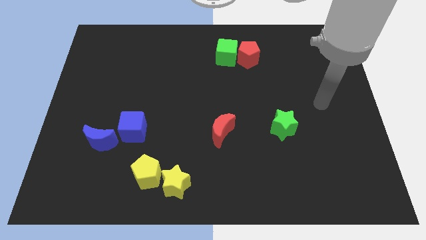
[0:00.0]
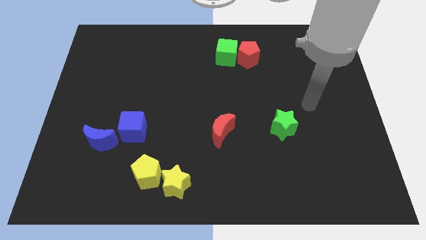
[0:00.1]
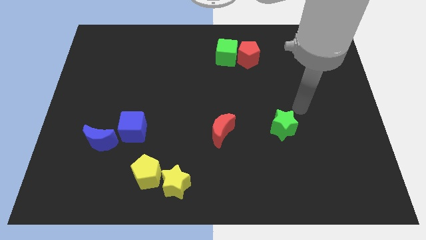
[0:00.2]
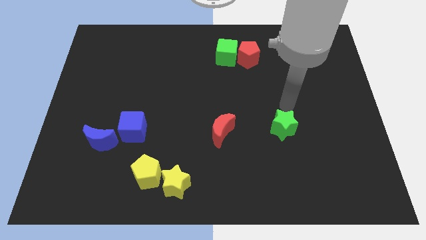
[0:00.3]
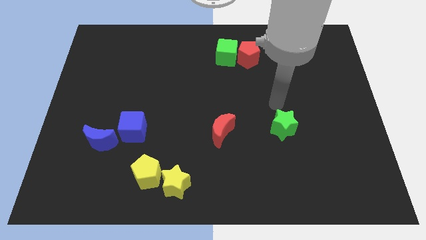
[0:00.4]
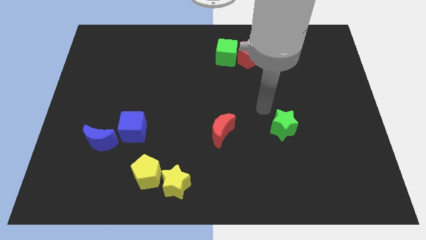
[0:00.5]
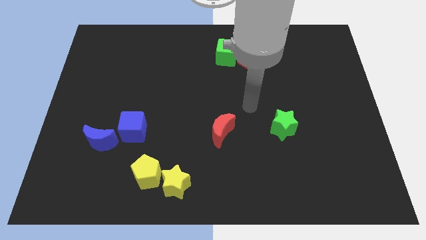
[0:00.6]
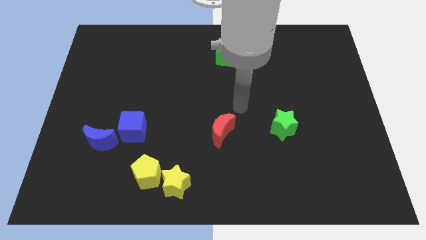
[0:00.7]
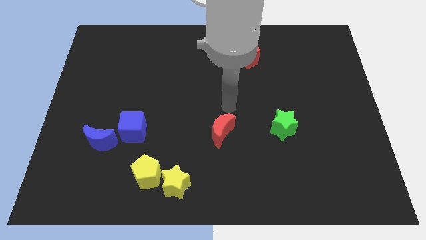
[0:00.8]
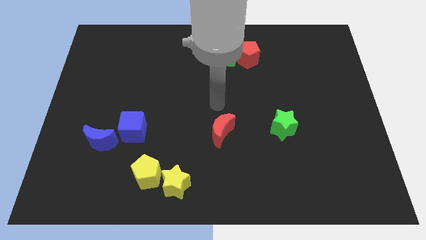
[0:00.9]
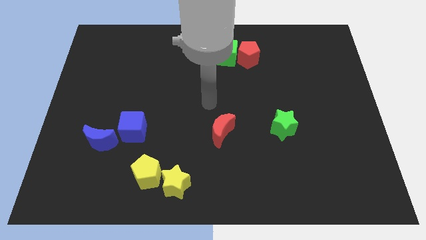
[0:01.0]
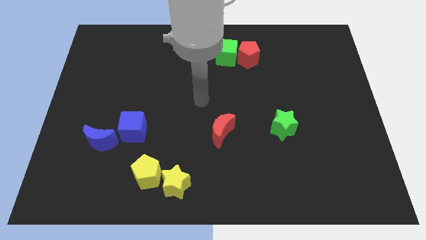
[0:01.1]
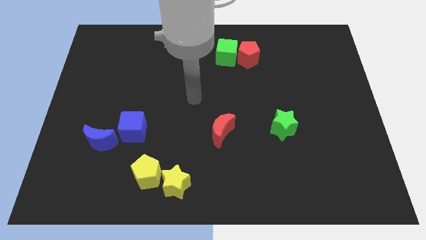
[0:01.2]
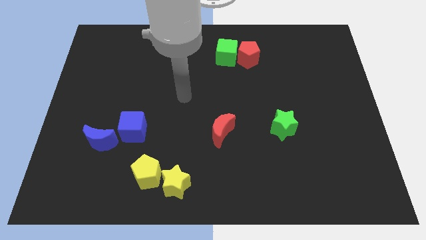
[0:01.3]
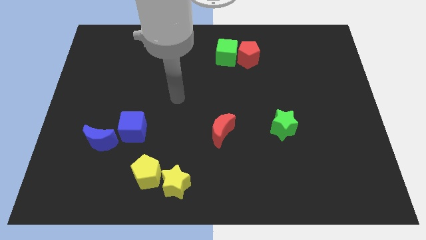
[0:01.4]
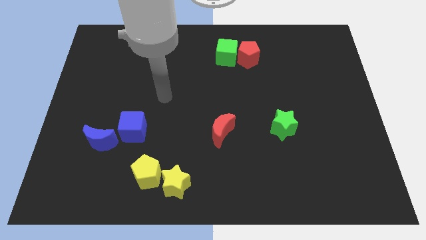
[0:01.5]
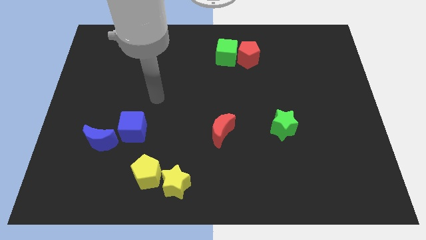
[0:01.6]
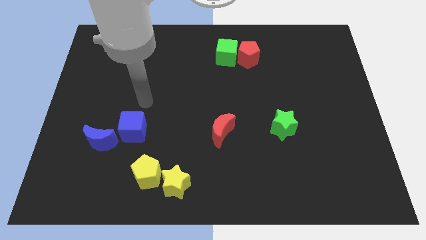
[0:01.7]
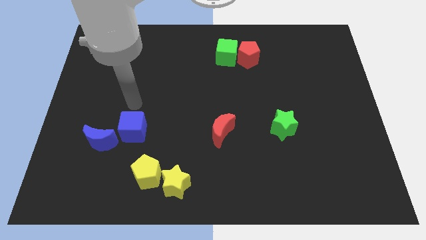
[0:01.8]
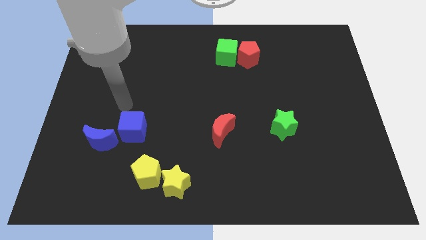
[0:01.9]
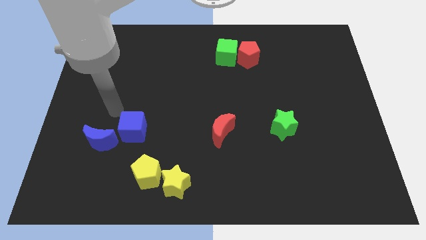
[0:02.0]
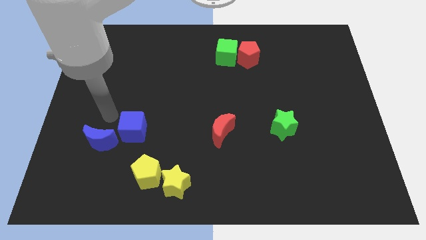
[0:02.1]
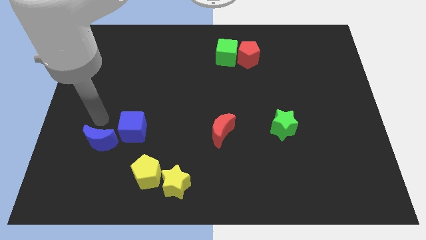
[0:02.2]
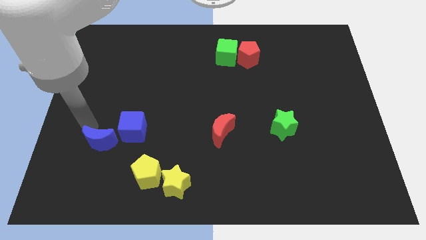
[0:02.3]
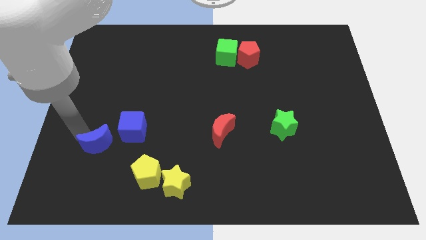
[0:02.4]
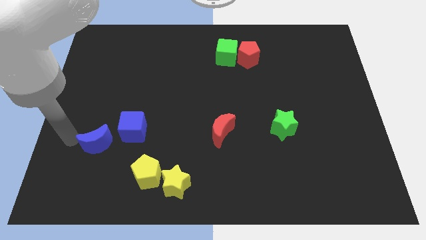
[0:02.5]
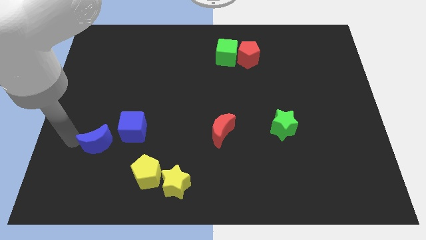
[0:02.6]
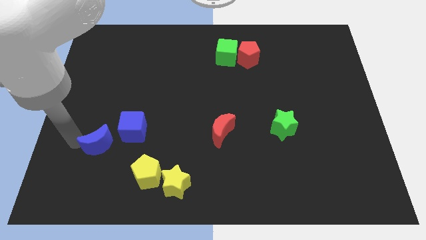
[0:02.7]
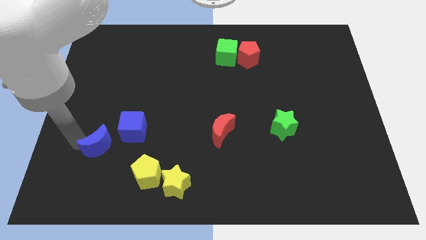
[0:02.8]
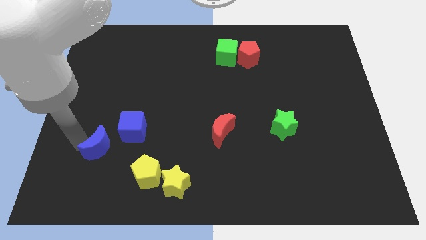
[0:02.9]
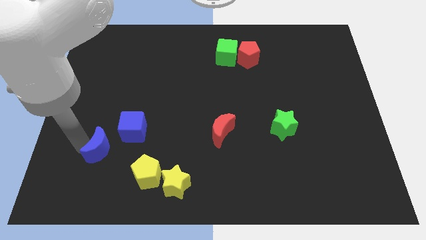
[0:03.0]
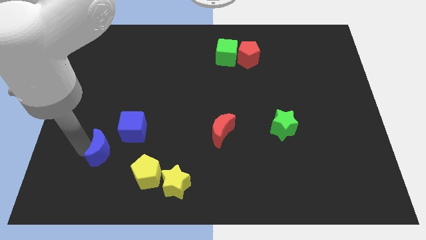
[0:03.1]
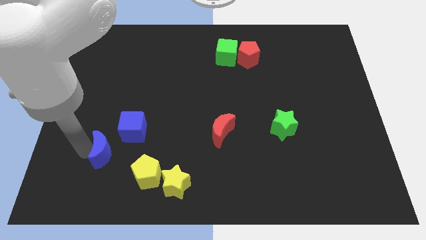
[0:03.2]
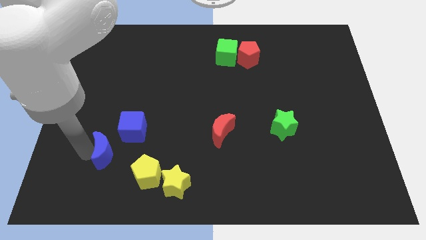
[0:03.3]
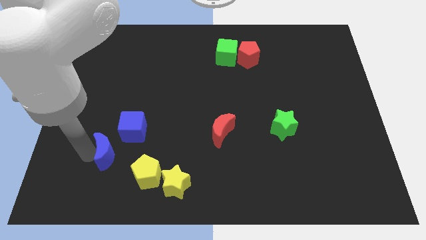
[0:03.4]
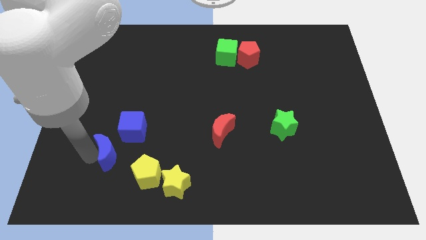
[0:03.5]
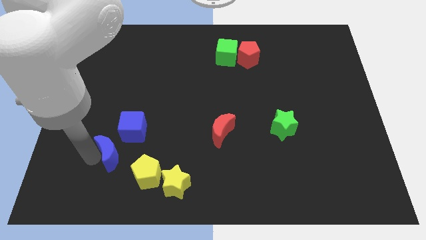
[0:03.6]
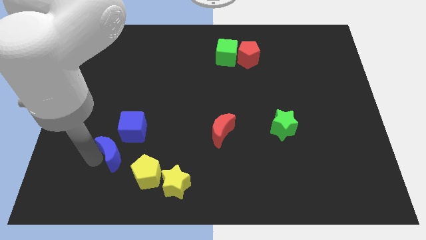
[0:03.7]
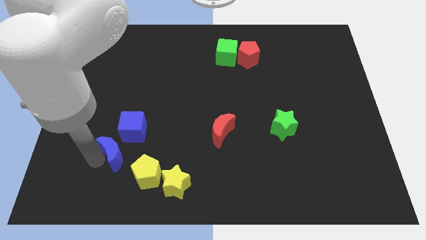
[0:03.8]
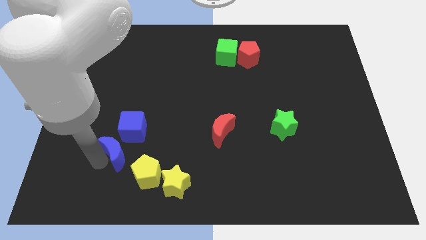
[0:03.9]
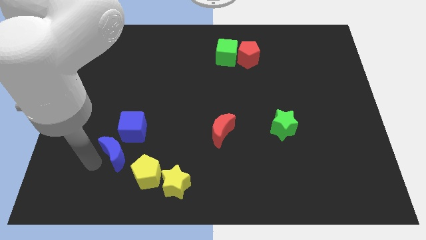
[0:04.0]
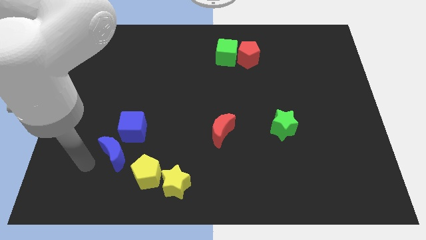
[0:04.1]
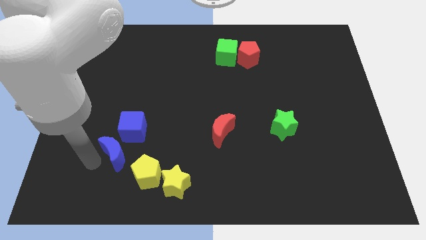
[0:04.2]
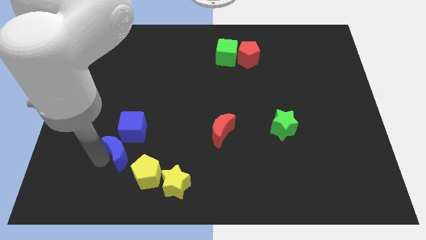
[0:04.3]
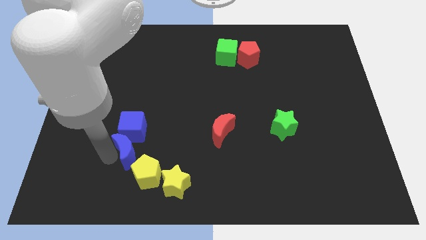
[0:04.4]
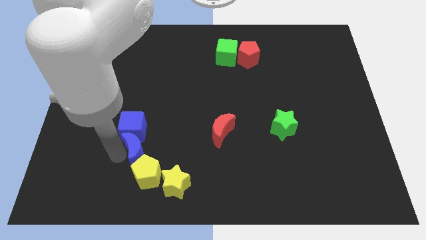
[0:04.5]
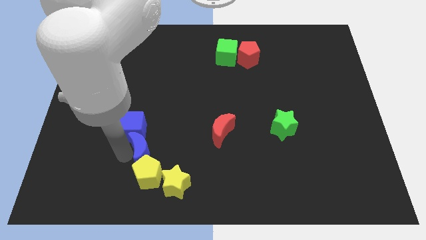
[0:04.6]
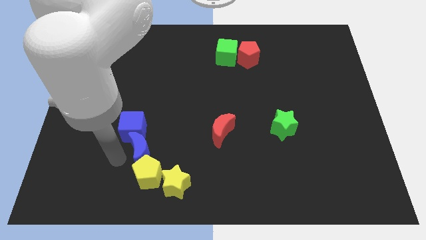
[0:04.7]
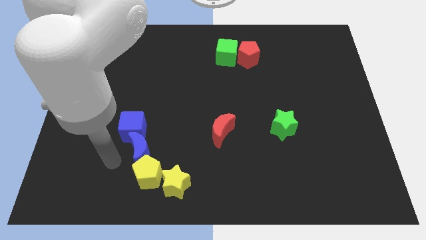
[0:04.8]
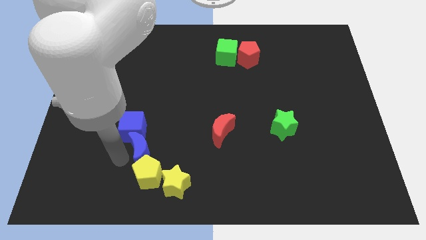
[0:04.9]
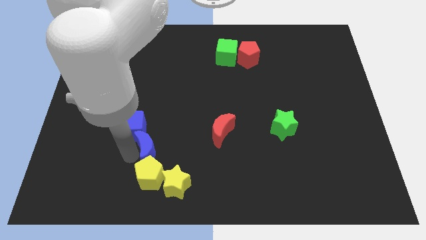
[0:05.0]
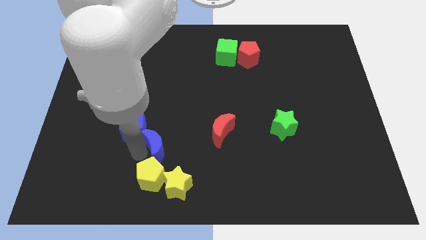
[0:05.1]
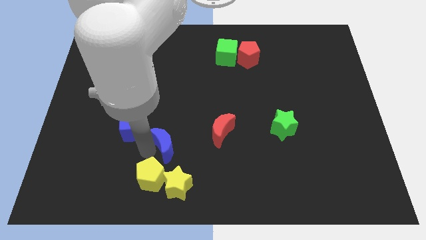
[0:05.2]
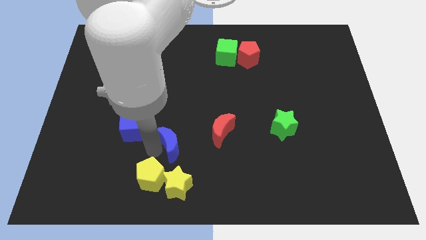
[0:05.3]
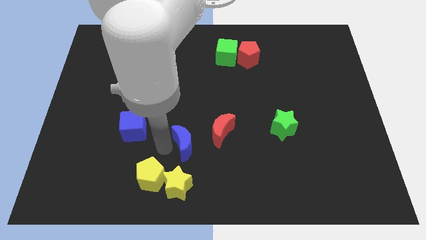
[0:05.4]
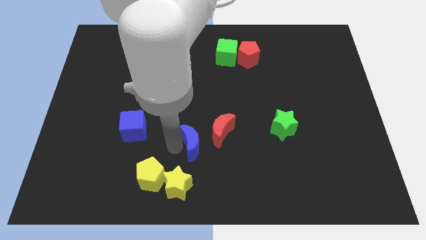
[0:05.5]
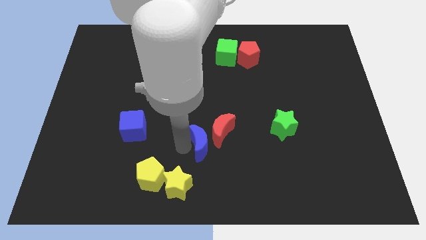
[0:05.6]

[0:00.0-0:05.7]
slide the blue moon to the red moon

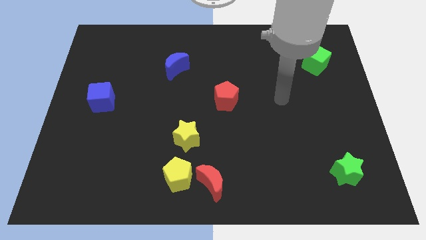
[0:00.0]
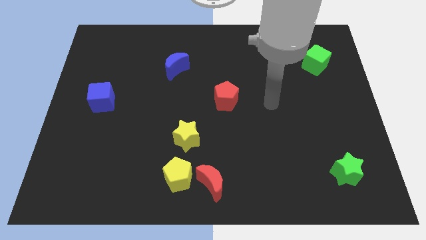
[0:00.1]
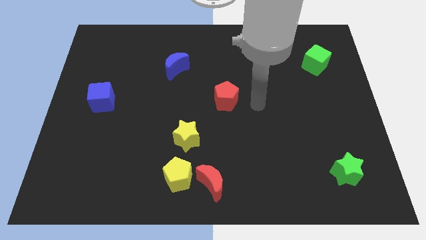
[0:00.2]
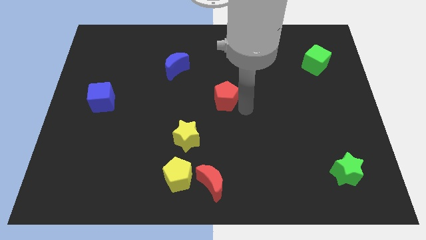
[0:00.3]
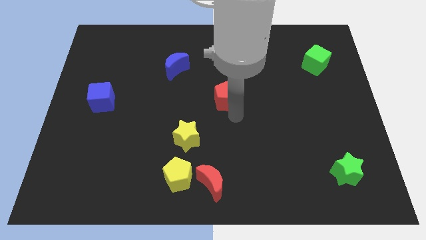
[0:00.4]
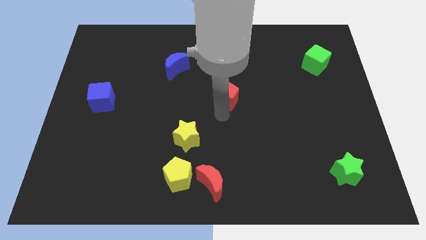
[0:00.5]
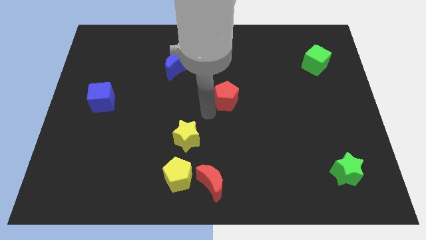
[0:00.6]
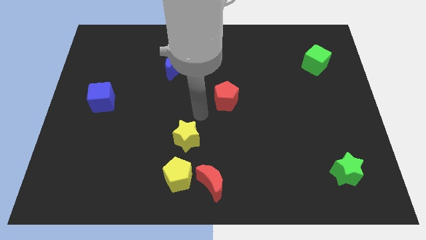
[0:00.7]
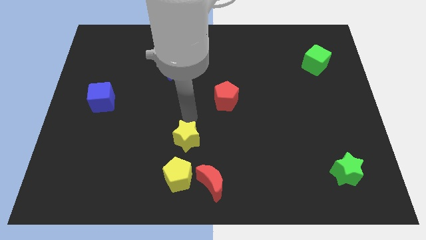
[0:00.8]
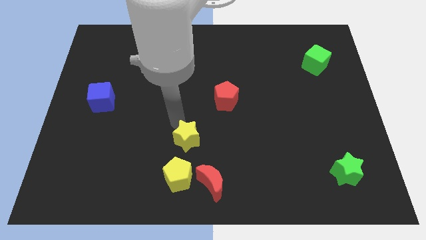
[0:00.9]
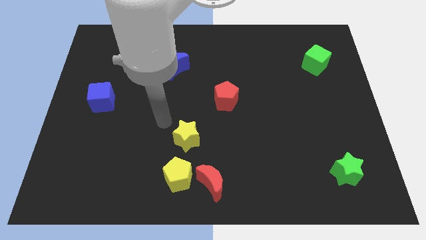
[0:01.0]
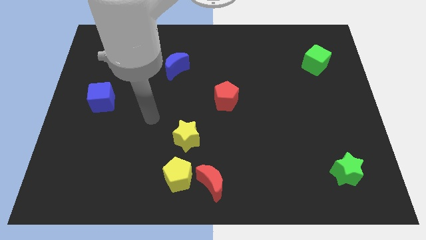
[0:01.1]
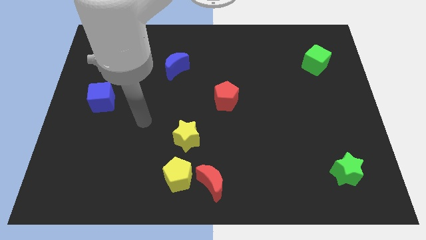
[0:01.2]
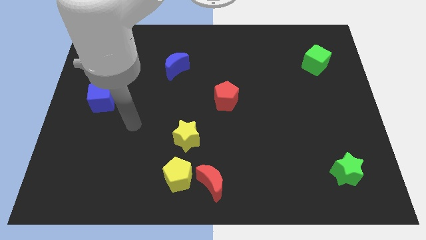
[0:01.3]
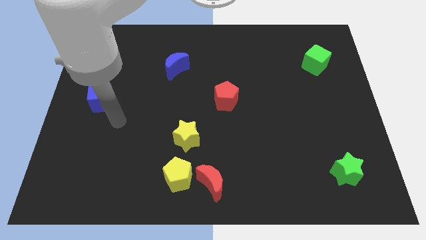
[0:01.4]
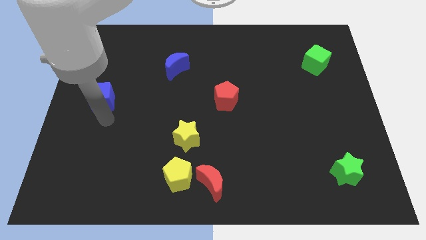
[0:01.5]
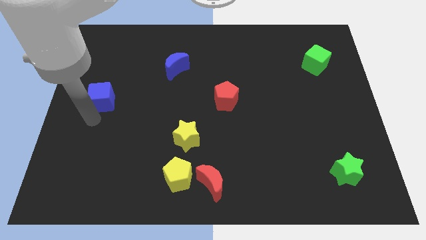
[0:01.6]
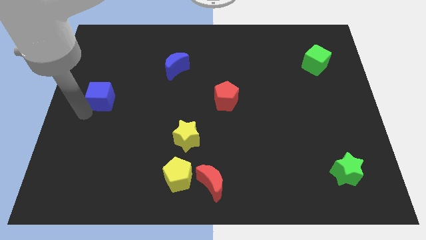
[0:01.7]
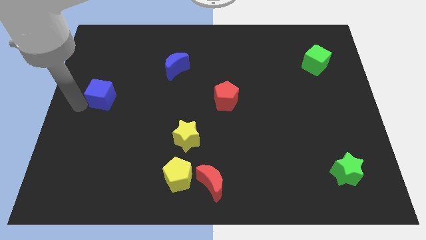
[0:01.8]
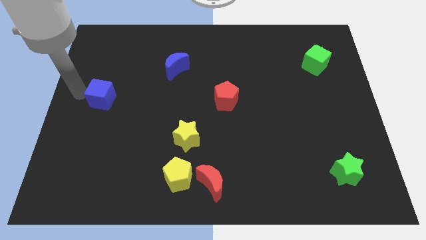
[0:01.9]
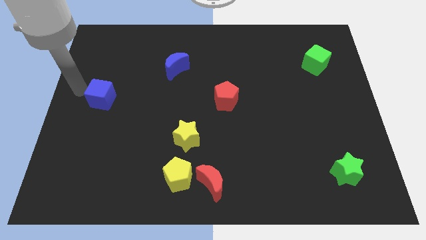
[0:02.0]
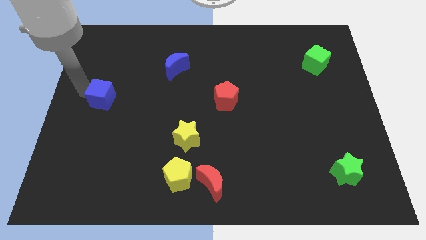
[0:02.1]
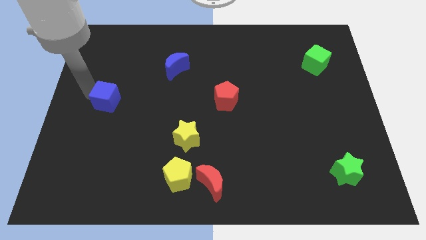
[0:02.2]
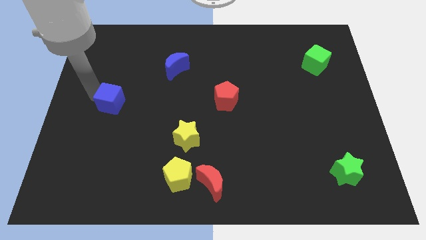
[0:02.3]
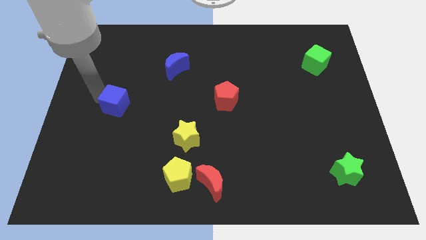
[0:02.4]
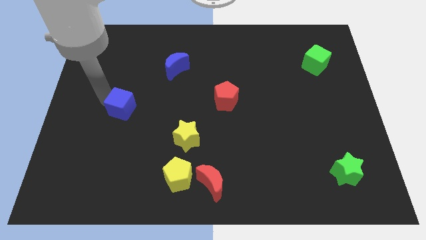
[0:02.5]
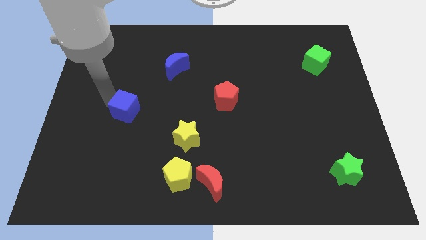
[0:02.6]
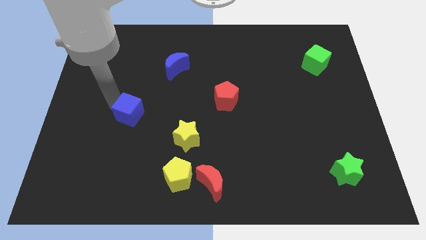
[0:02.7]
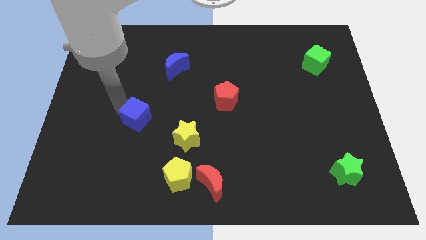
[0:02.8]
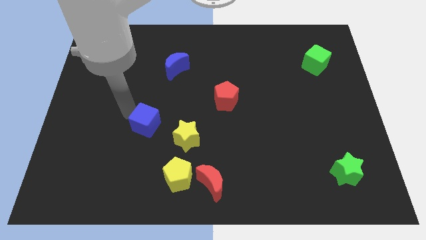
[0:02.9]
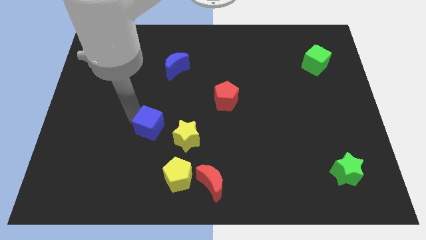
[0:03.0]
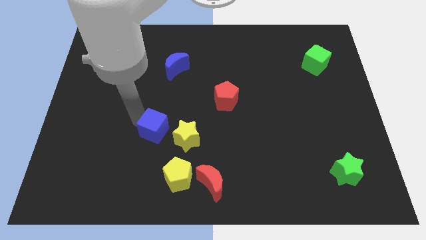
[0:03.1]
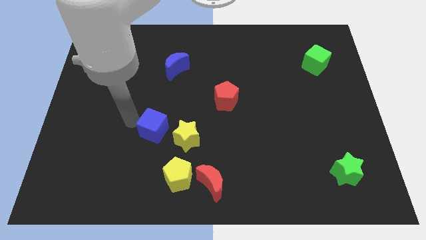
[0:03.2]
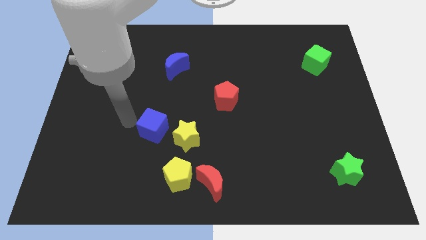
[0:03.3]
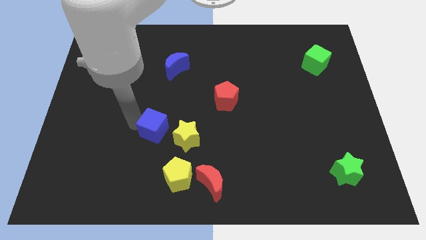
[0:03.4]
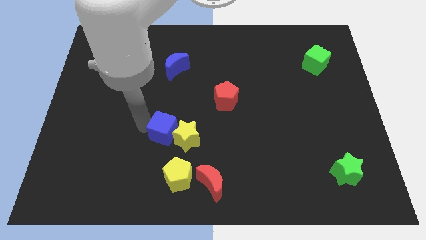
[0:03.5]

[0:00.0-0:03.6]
push the blue cube towards the yellow star
